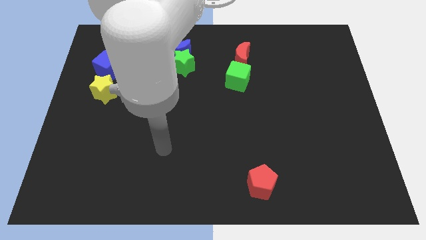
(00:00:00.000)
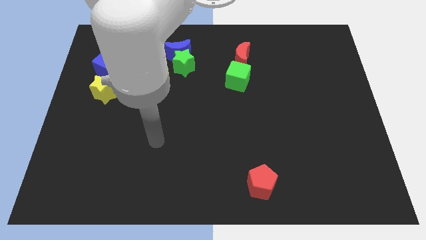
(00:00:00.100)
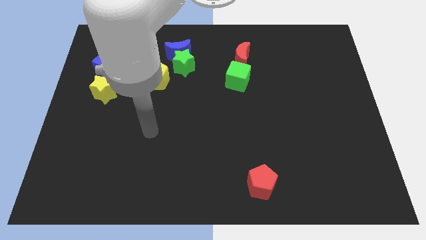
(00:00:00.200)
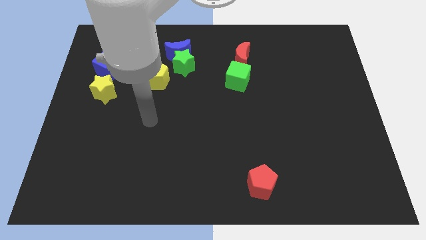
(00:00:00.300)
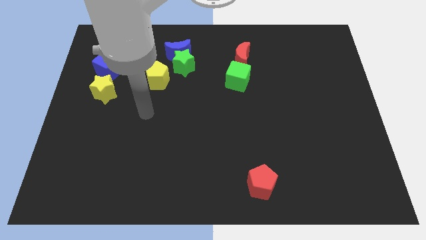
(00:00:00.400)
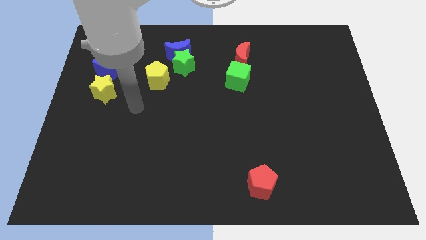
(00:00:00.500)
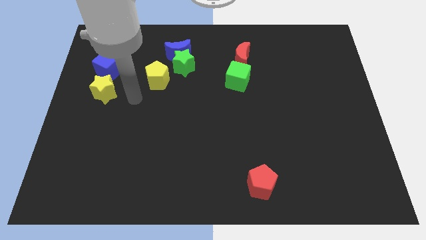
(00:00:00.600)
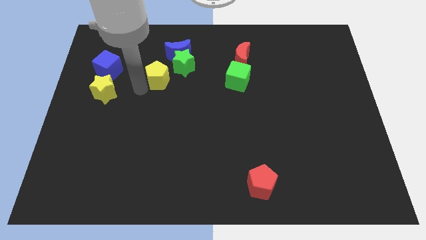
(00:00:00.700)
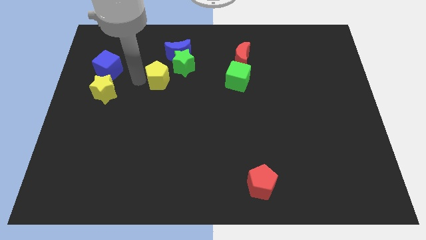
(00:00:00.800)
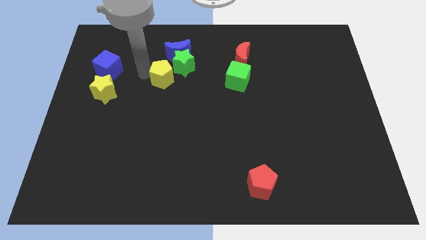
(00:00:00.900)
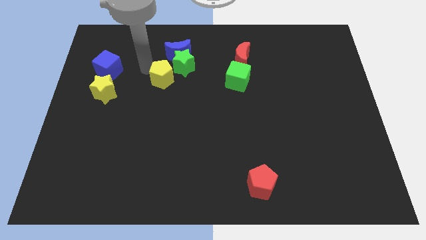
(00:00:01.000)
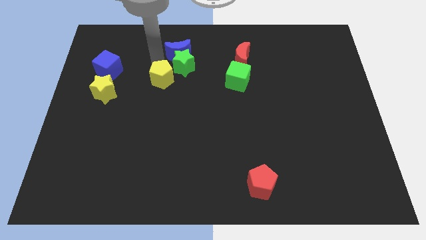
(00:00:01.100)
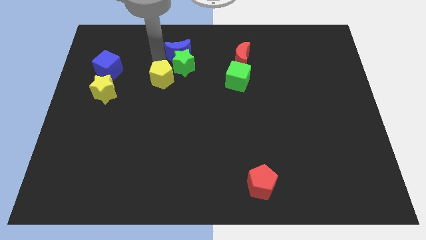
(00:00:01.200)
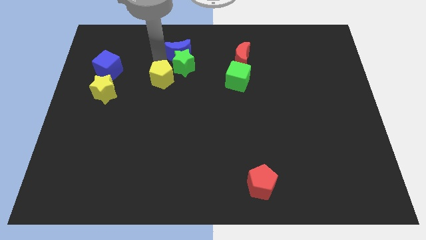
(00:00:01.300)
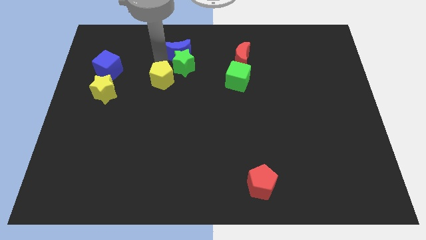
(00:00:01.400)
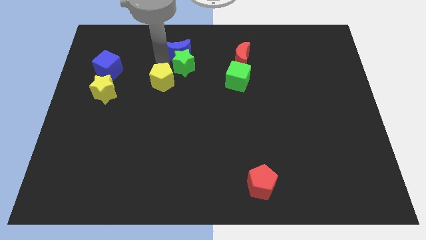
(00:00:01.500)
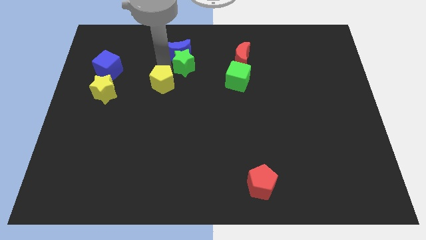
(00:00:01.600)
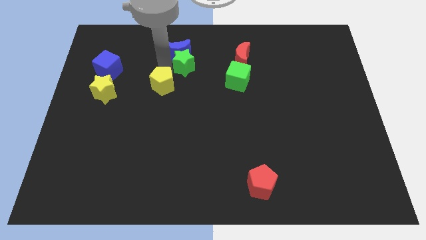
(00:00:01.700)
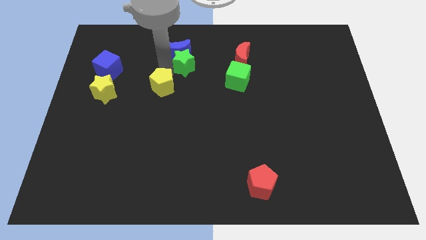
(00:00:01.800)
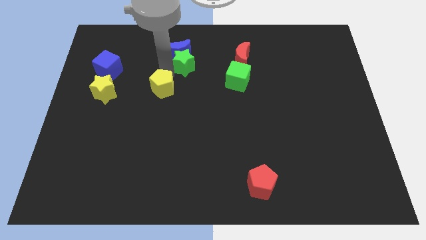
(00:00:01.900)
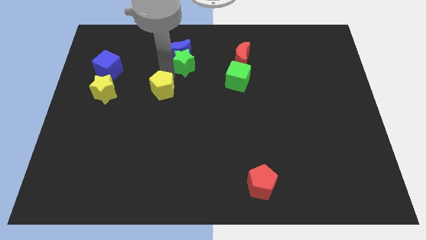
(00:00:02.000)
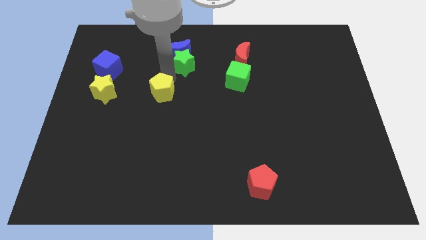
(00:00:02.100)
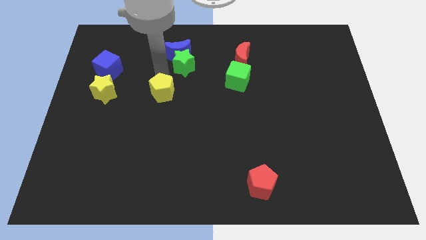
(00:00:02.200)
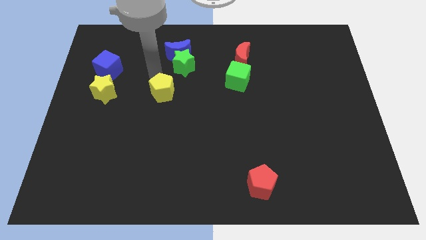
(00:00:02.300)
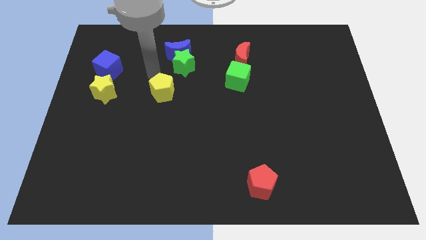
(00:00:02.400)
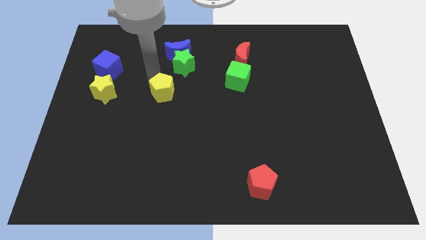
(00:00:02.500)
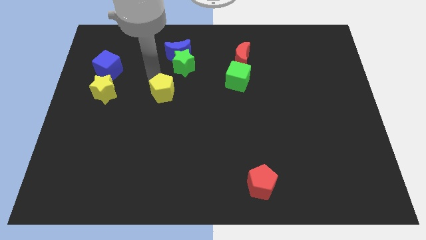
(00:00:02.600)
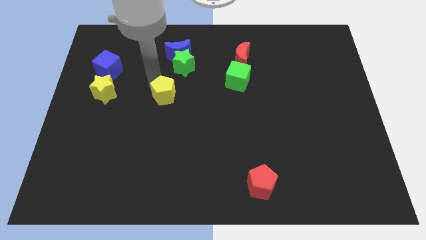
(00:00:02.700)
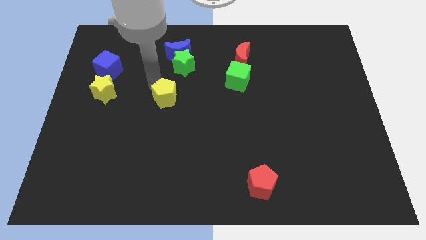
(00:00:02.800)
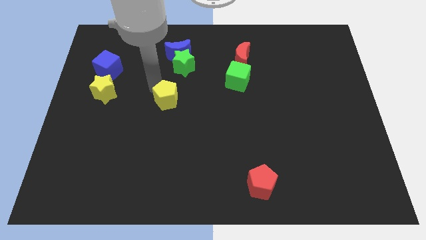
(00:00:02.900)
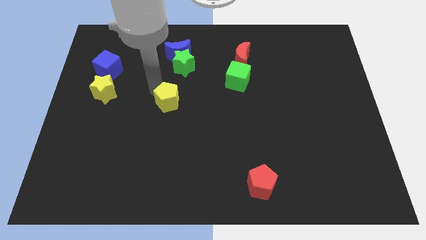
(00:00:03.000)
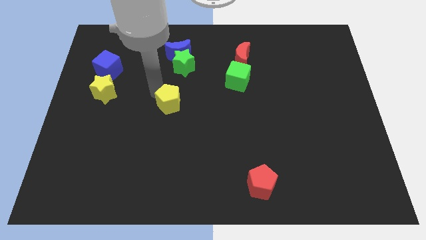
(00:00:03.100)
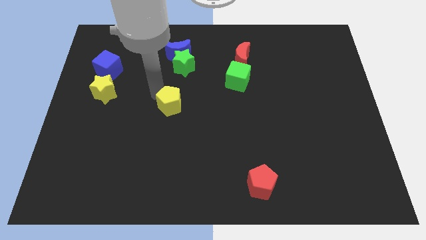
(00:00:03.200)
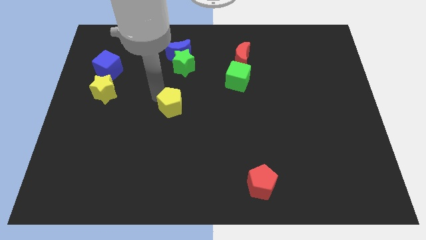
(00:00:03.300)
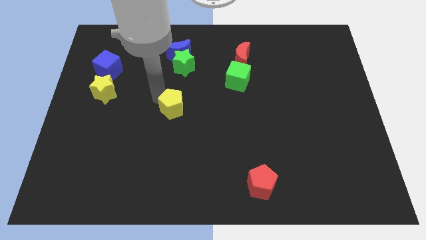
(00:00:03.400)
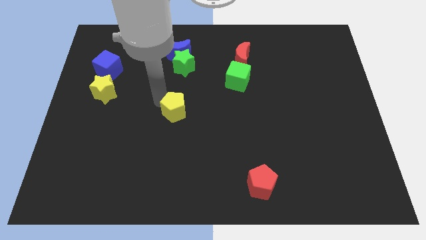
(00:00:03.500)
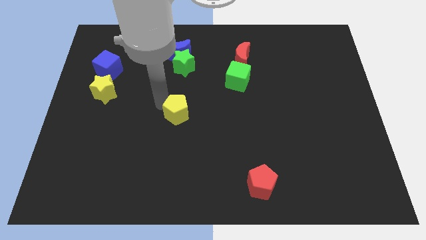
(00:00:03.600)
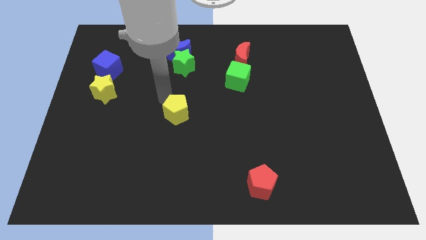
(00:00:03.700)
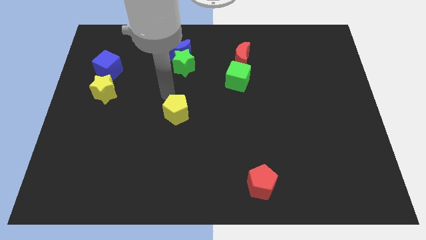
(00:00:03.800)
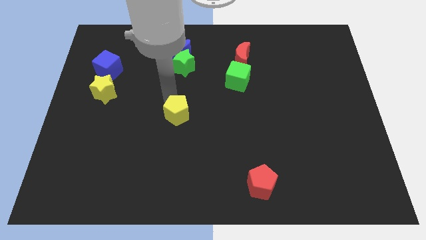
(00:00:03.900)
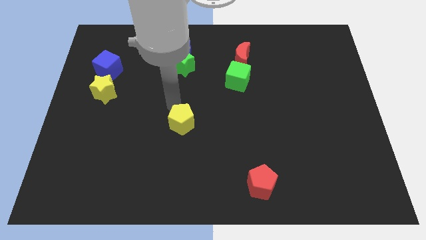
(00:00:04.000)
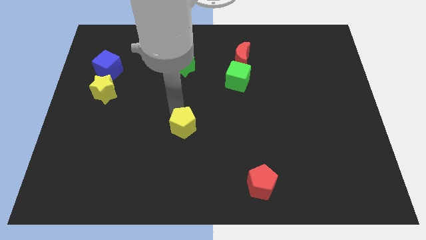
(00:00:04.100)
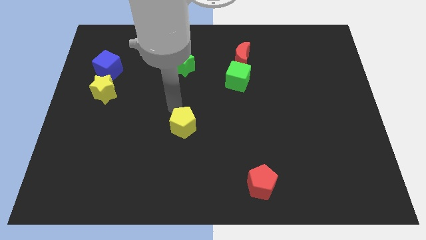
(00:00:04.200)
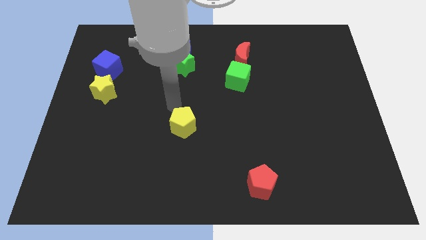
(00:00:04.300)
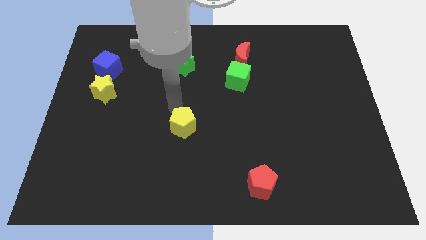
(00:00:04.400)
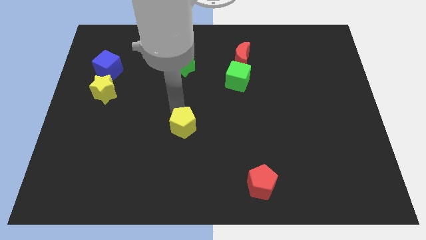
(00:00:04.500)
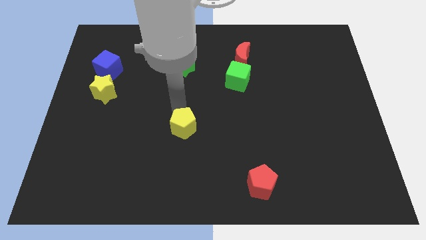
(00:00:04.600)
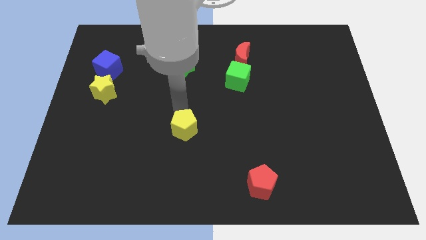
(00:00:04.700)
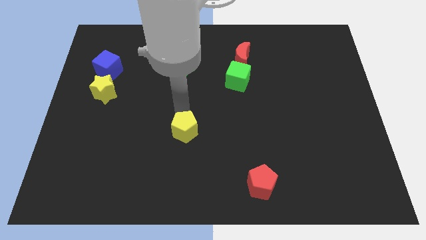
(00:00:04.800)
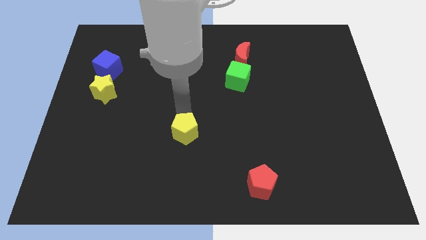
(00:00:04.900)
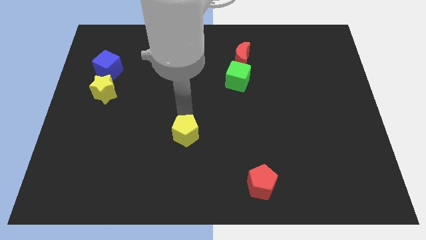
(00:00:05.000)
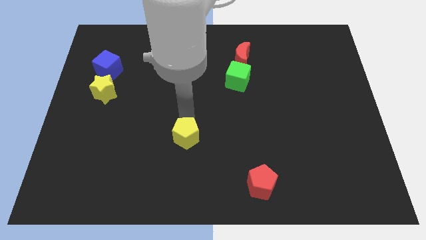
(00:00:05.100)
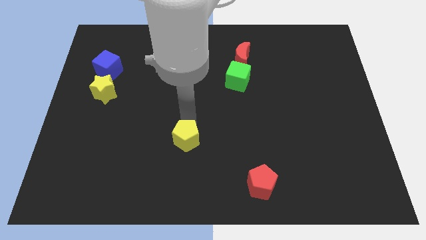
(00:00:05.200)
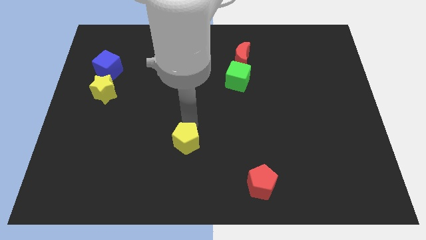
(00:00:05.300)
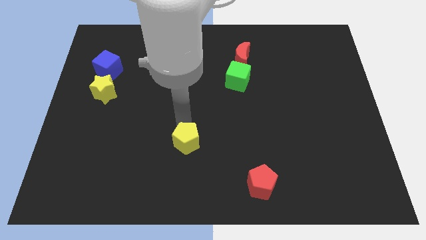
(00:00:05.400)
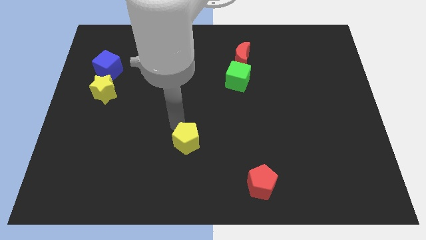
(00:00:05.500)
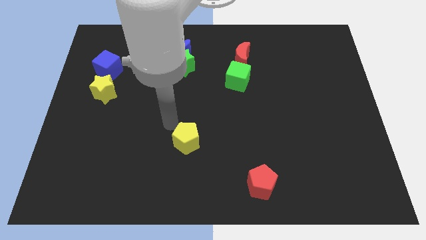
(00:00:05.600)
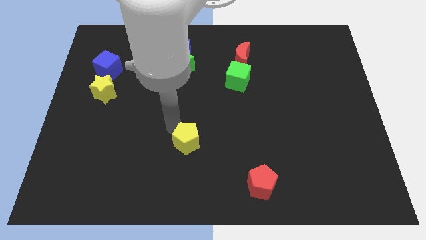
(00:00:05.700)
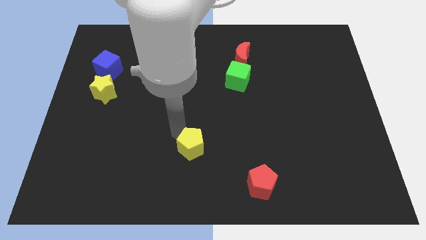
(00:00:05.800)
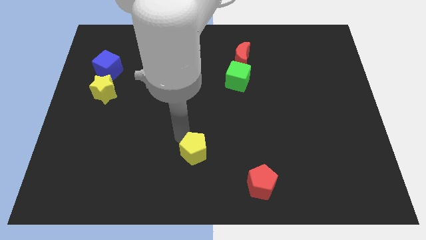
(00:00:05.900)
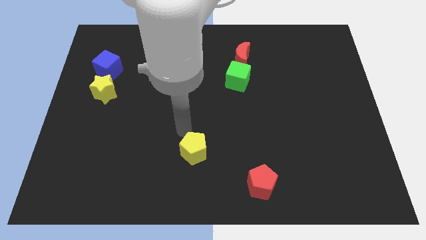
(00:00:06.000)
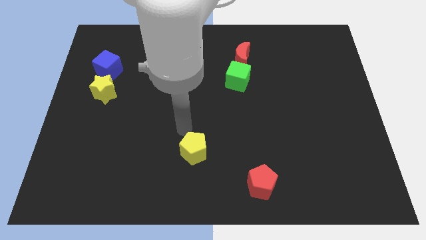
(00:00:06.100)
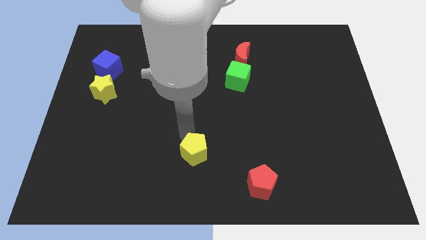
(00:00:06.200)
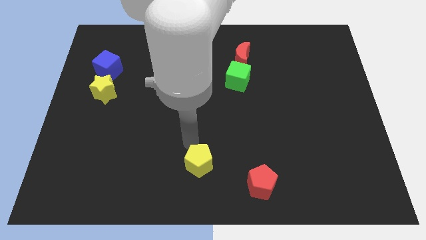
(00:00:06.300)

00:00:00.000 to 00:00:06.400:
push the yellow pentagon to the left of the red pentagon

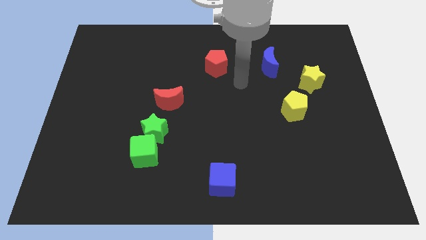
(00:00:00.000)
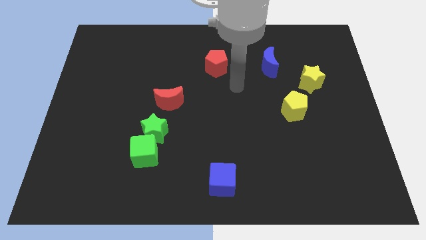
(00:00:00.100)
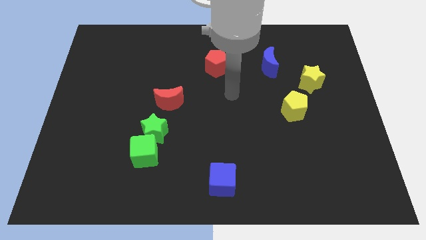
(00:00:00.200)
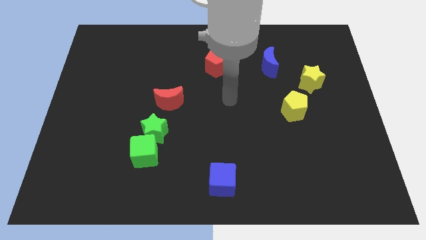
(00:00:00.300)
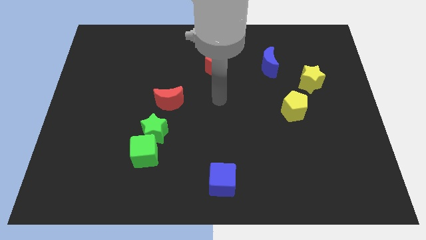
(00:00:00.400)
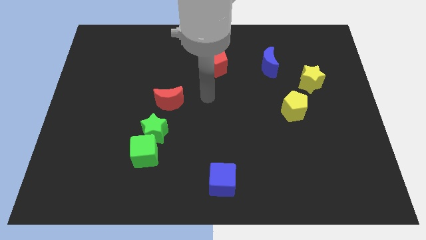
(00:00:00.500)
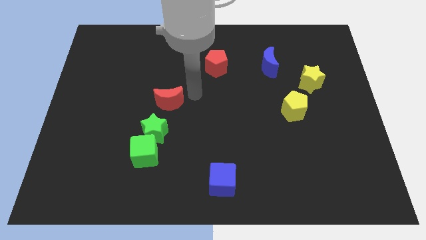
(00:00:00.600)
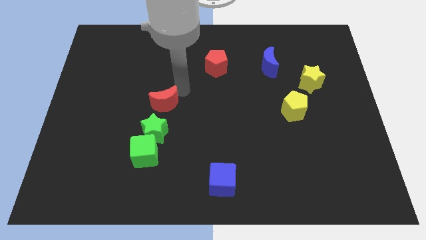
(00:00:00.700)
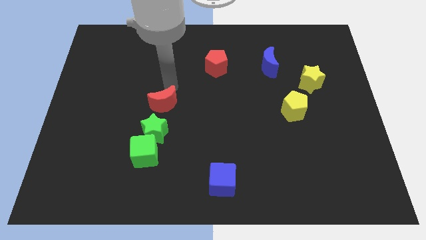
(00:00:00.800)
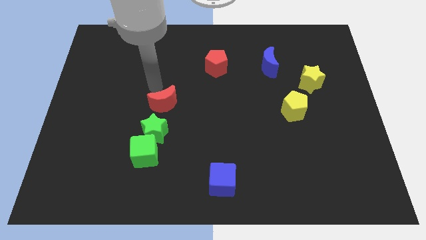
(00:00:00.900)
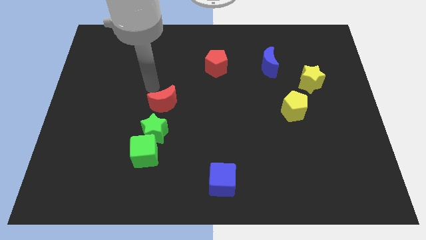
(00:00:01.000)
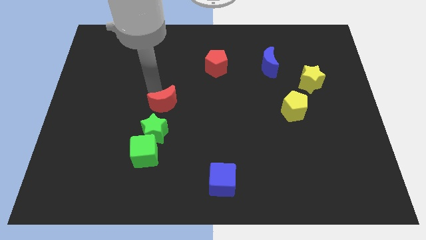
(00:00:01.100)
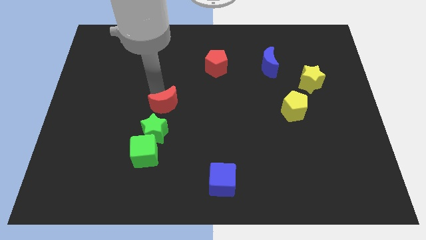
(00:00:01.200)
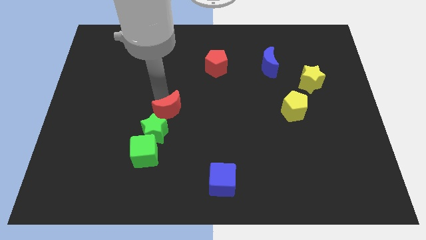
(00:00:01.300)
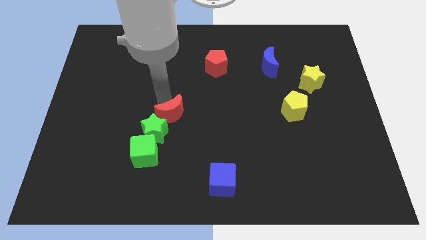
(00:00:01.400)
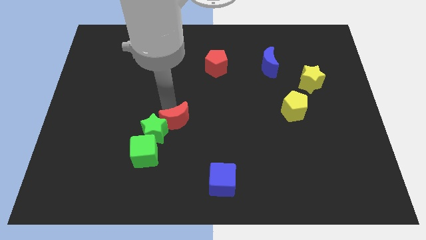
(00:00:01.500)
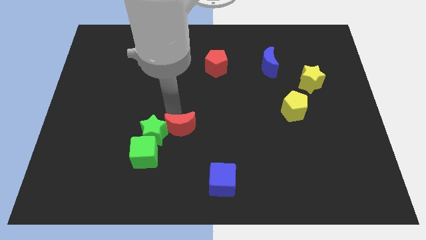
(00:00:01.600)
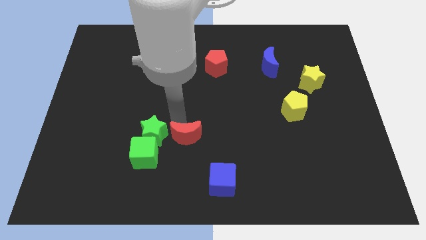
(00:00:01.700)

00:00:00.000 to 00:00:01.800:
push the red moon to the right side of the green cube
